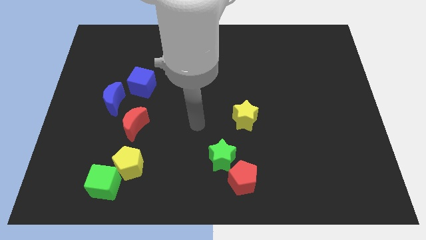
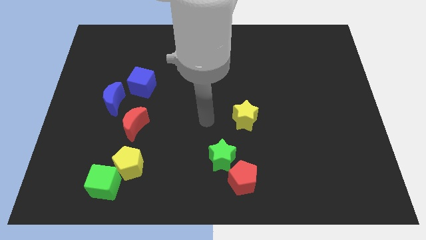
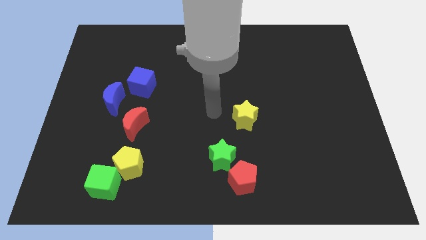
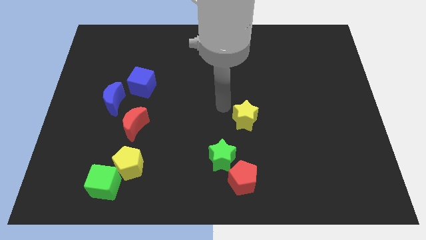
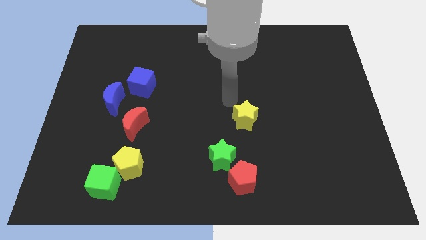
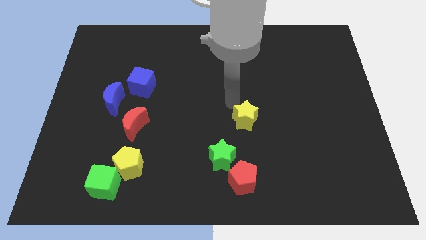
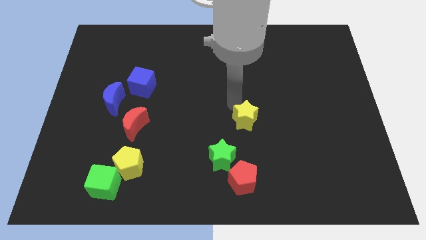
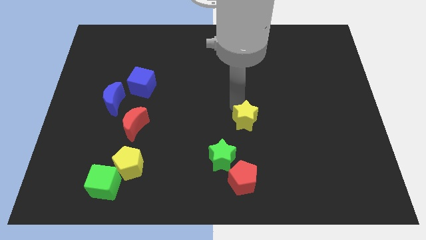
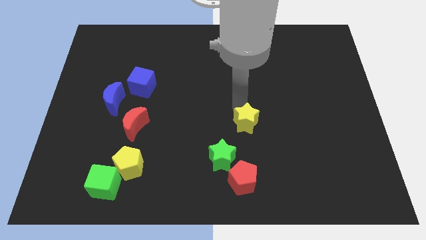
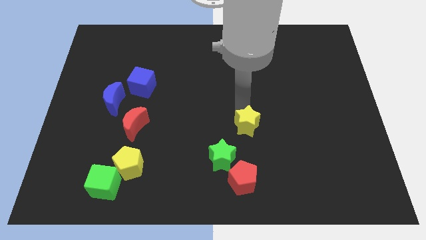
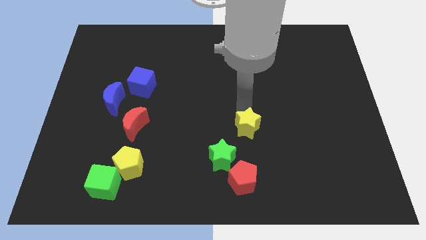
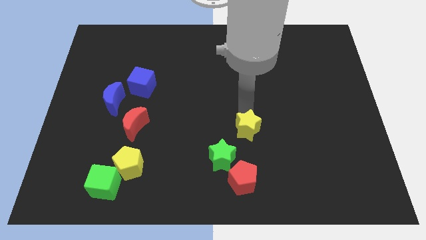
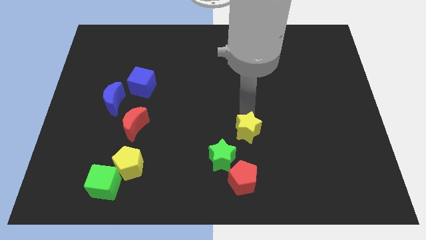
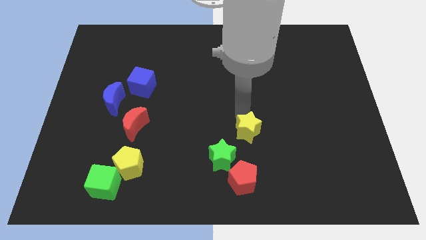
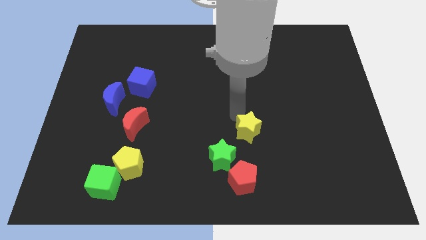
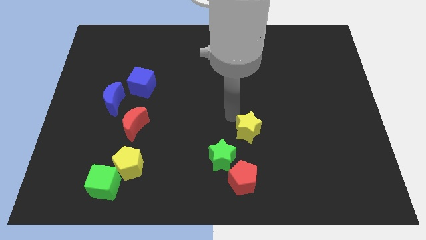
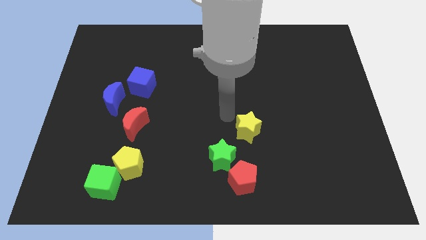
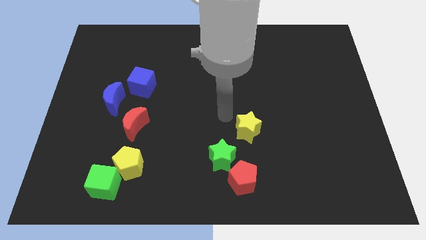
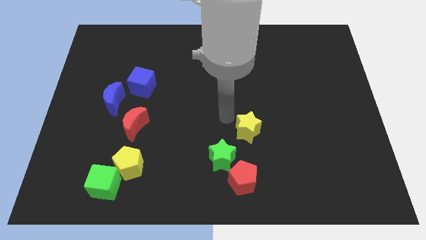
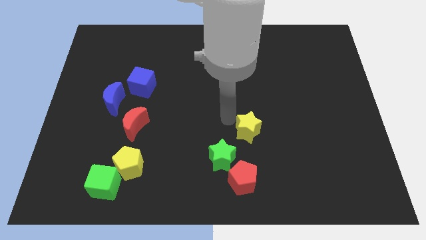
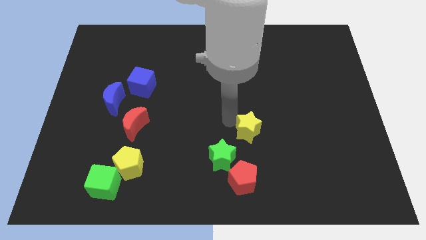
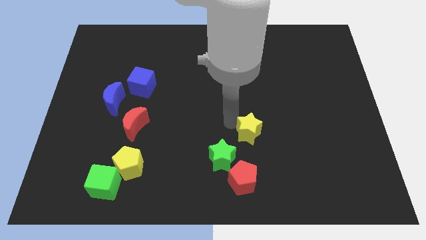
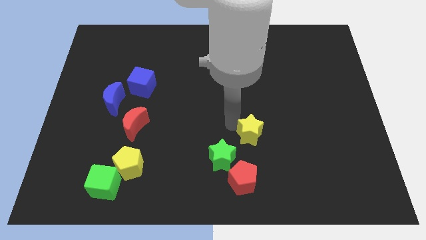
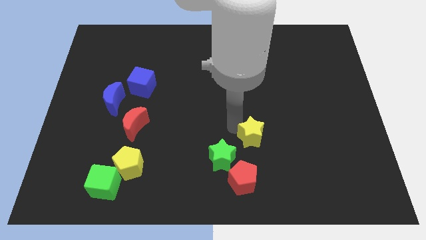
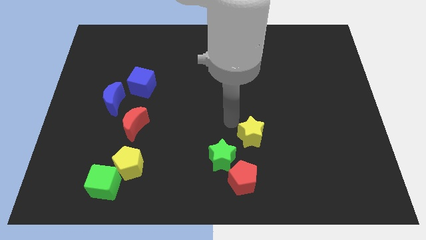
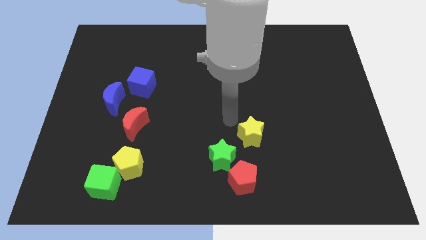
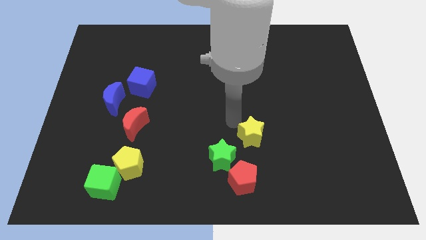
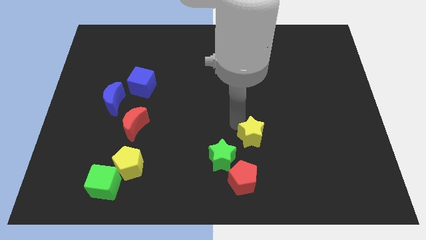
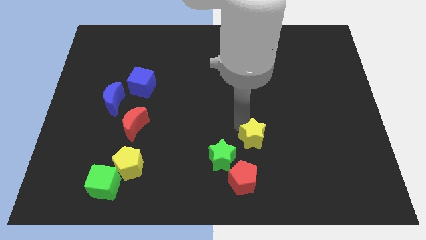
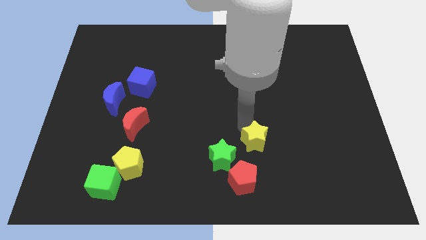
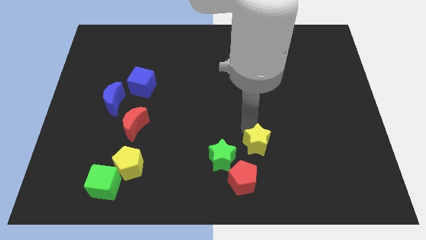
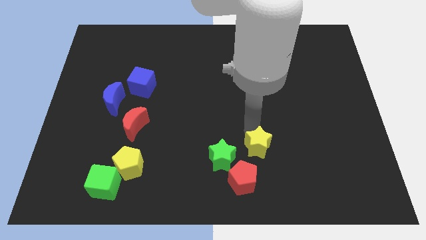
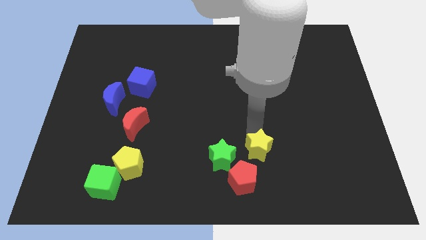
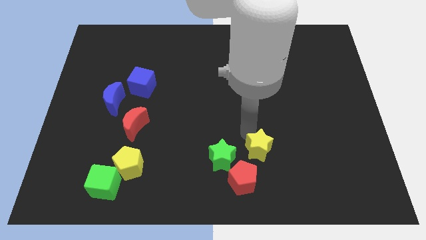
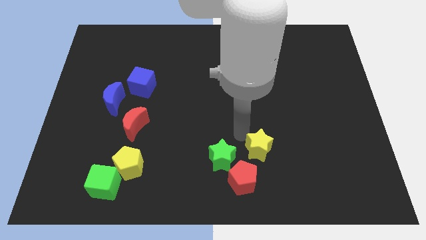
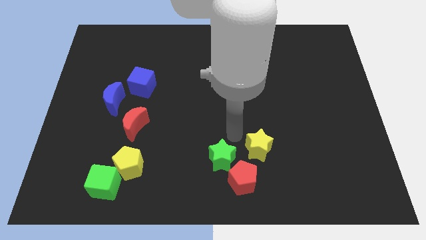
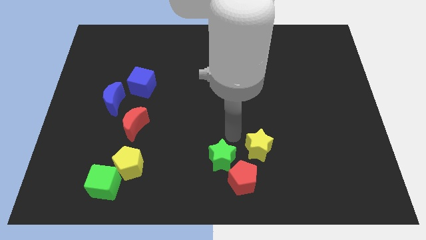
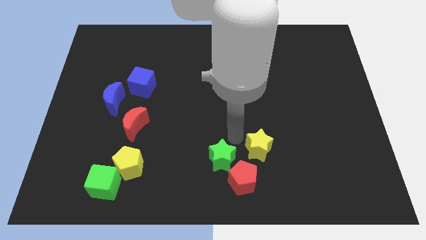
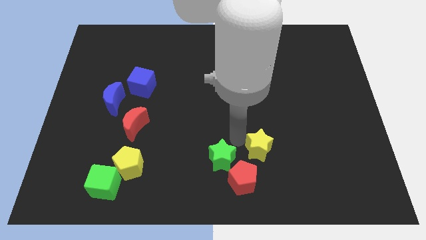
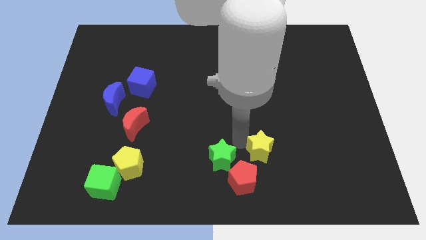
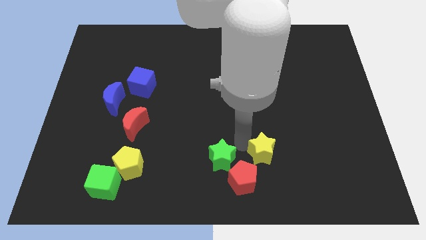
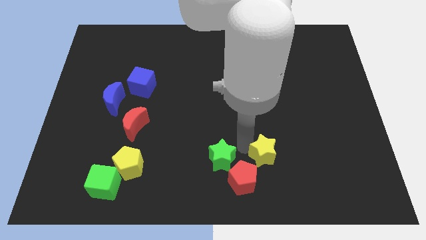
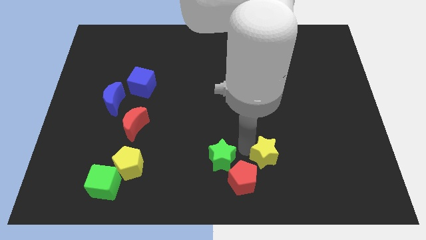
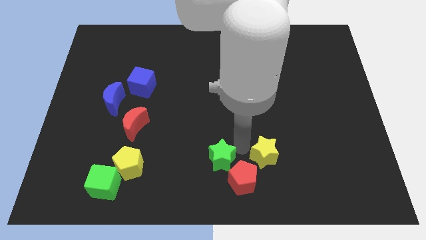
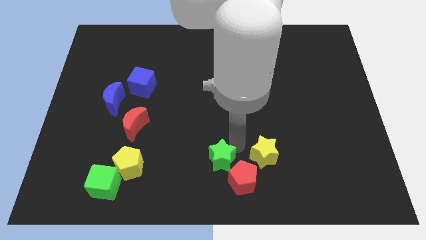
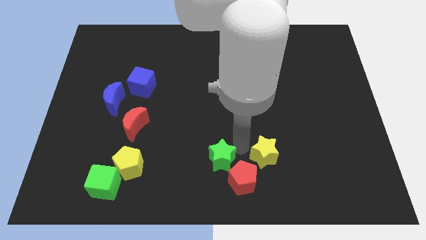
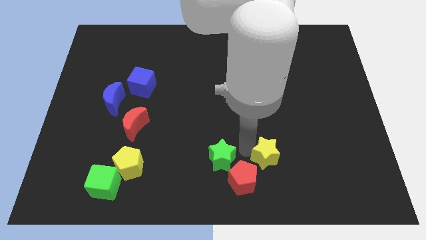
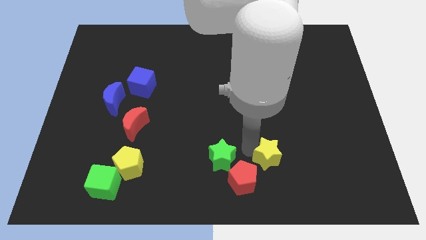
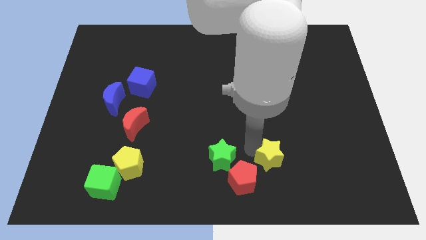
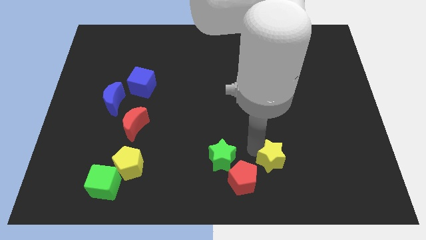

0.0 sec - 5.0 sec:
slide the yellow star to the right side of the red pentagon

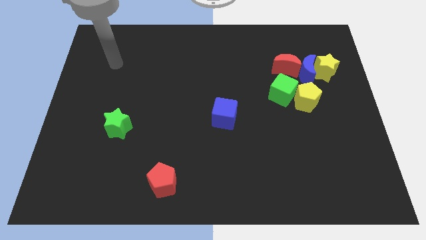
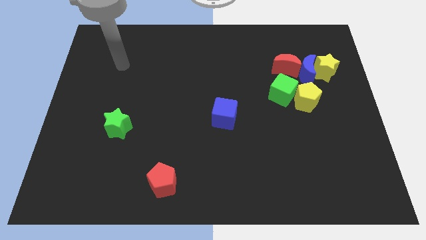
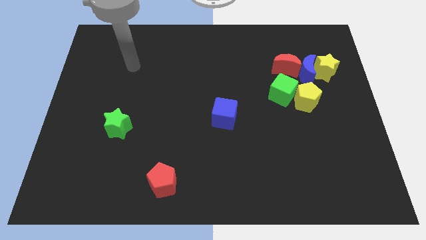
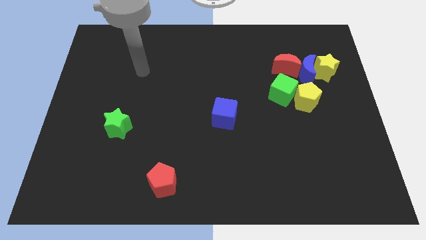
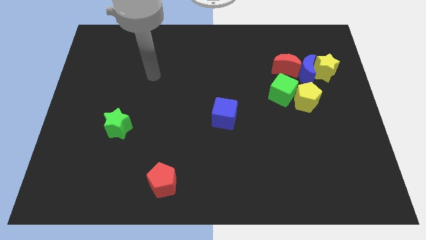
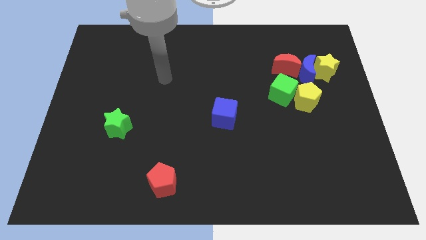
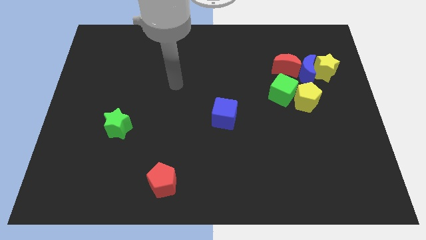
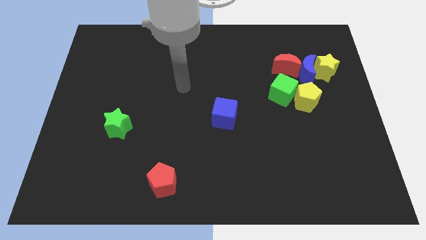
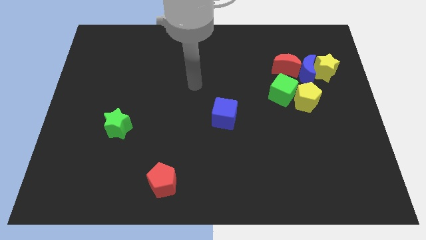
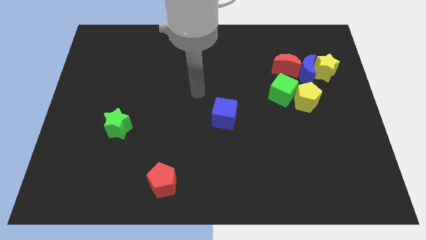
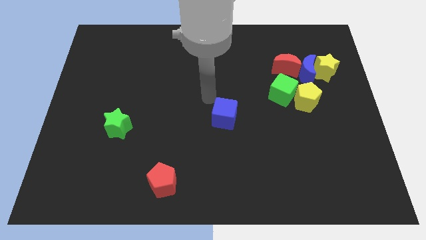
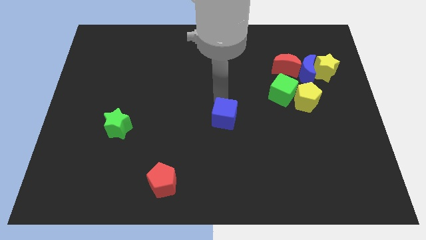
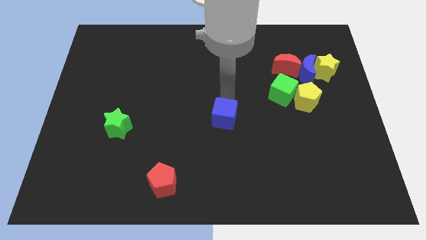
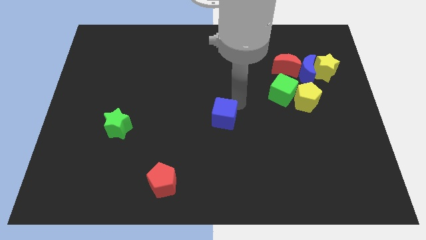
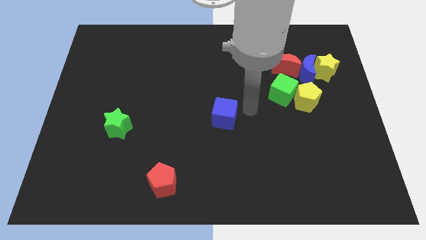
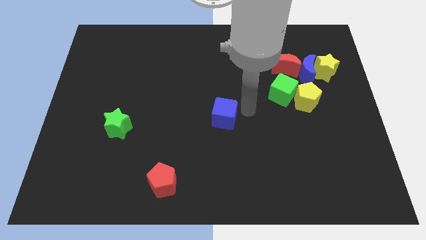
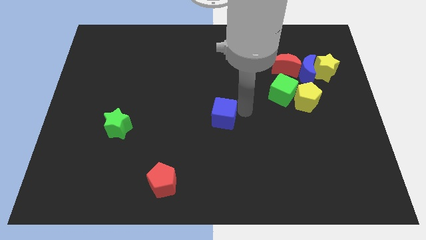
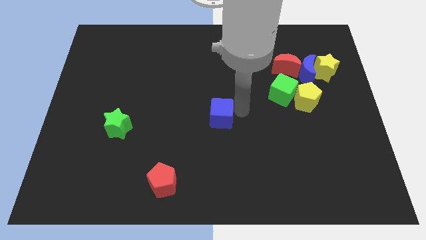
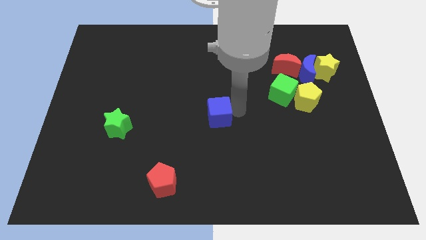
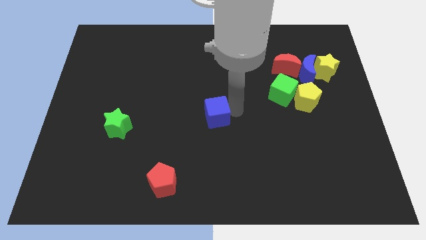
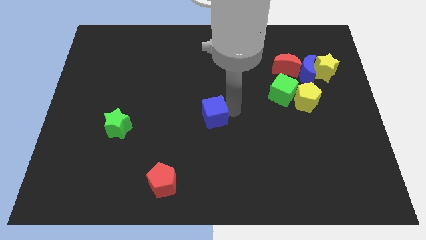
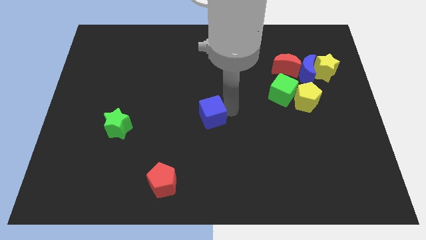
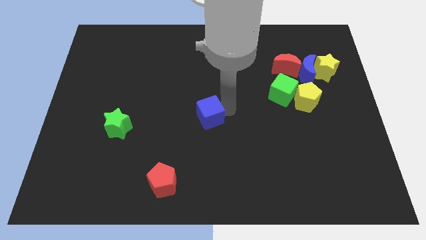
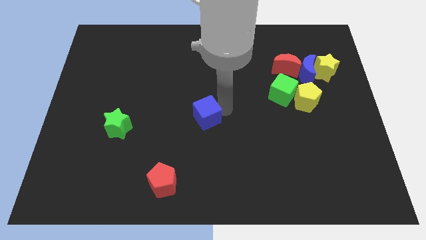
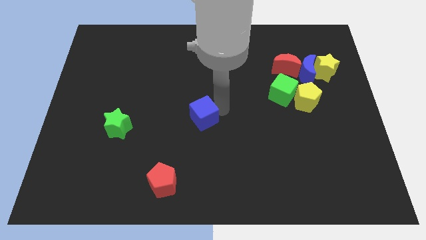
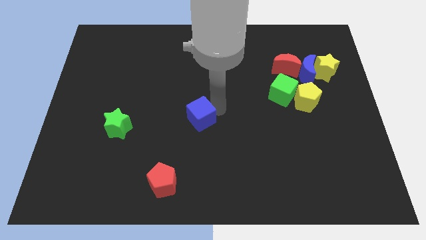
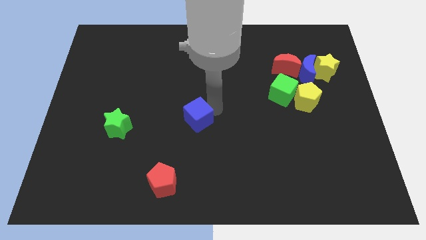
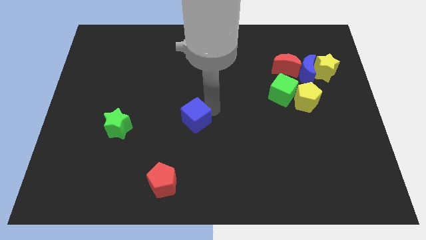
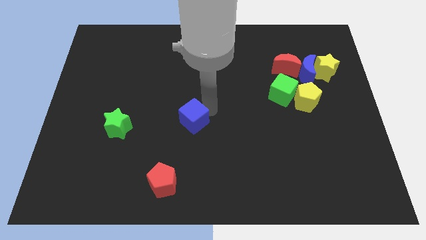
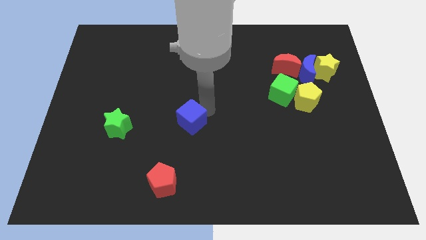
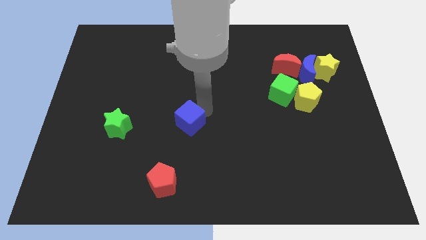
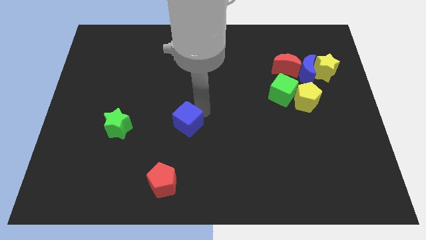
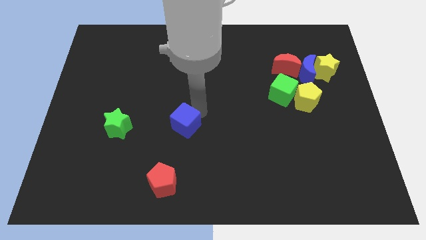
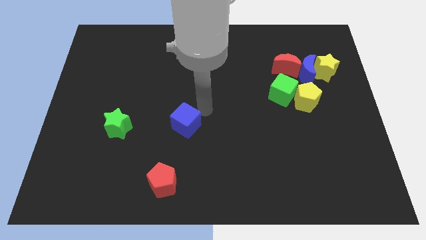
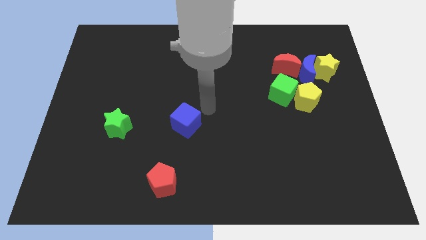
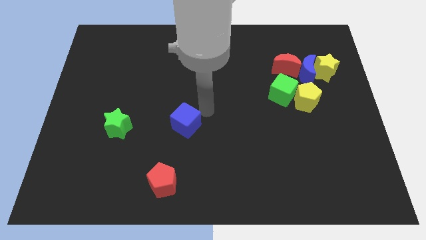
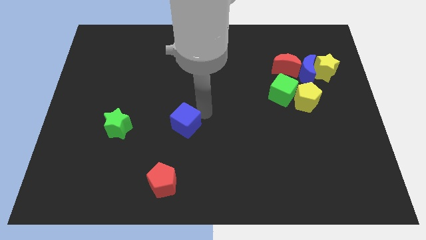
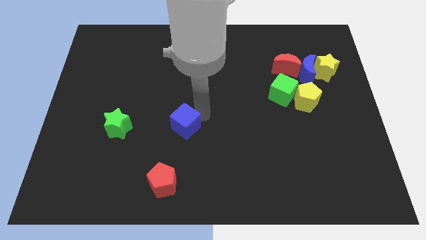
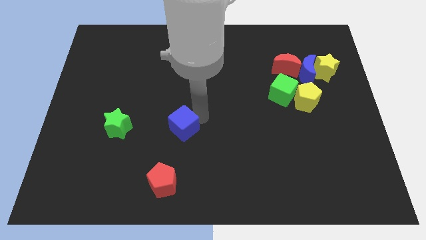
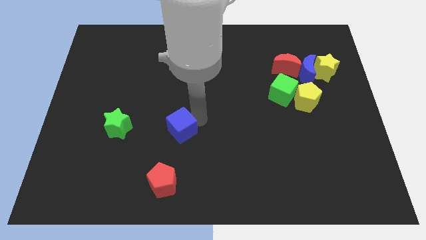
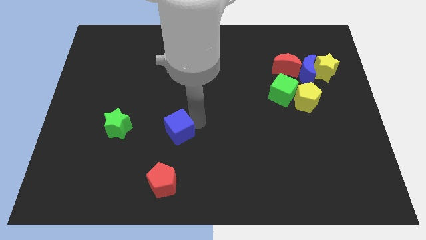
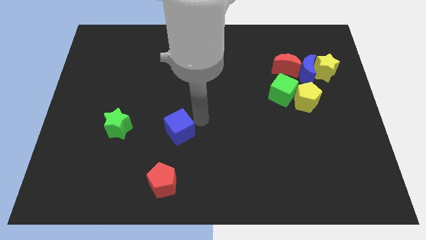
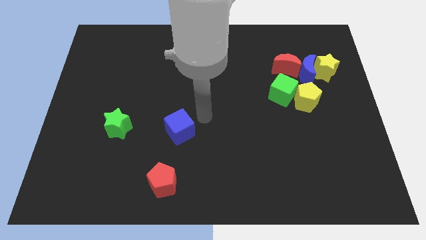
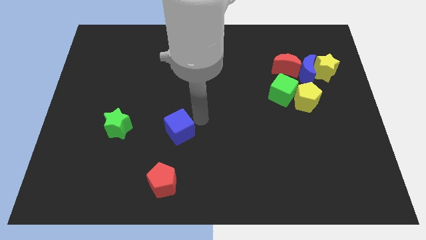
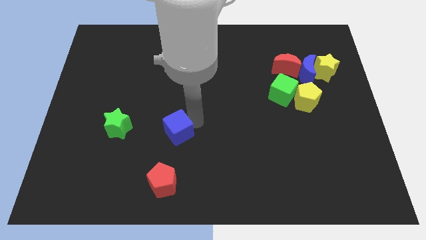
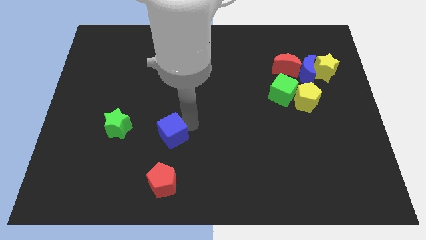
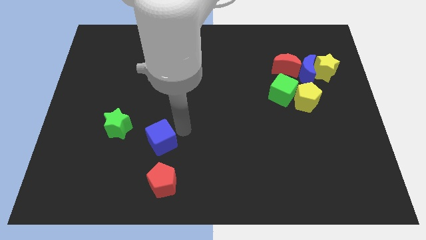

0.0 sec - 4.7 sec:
push the blue cube to the bottom right of the green star
